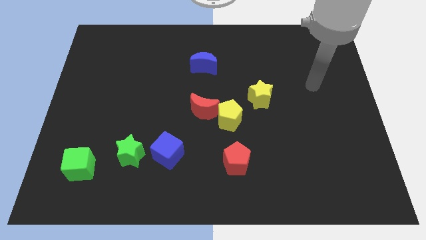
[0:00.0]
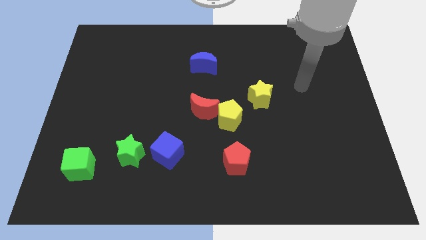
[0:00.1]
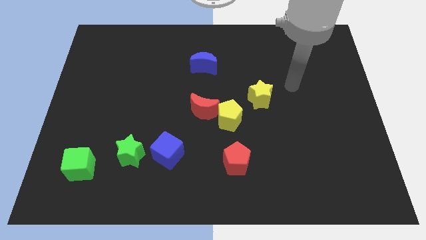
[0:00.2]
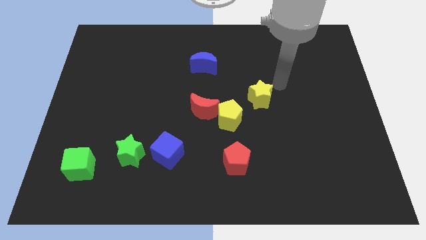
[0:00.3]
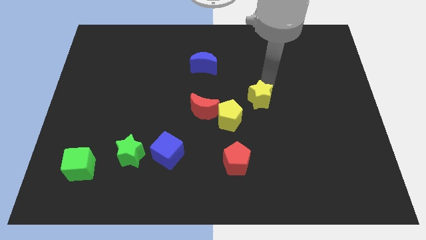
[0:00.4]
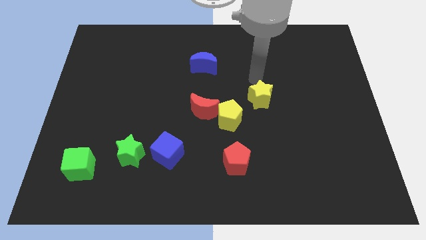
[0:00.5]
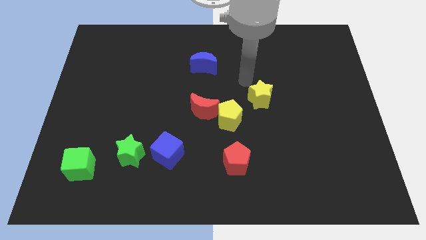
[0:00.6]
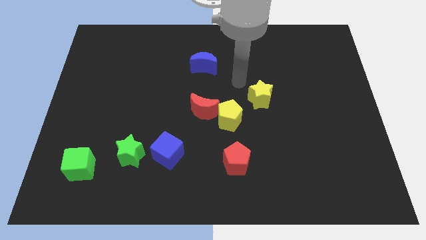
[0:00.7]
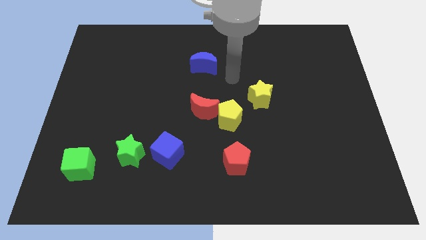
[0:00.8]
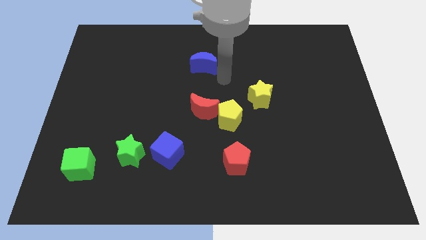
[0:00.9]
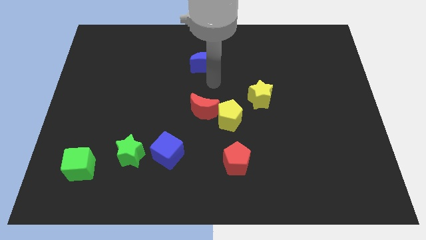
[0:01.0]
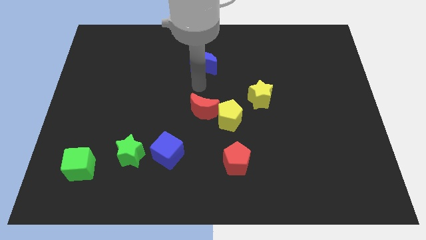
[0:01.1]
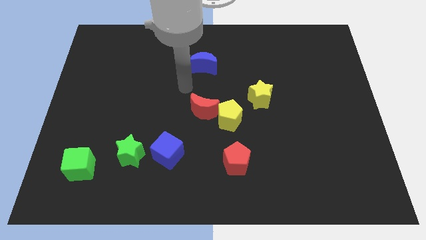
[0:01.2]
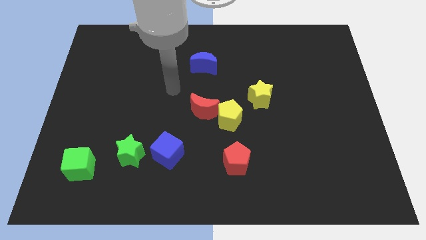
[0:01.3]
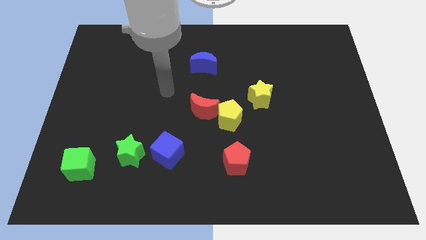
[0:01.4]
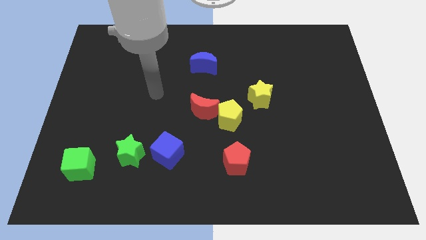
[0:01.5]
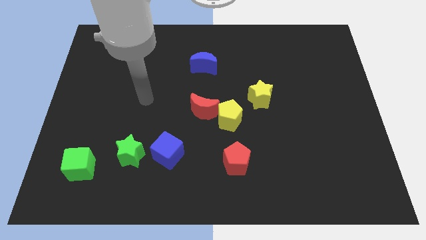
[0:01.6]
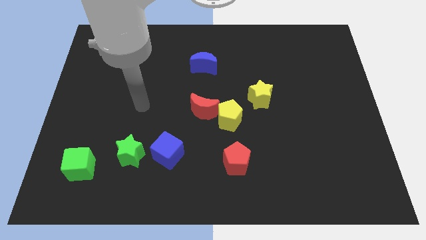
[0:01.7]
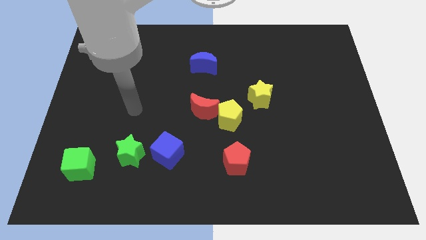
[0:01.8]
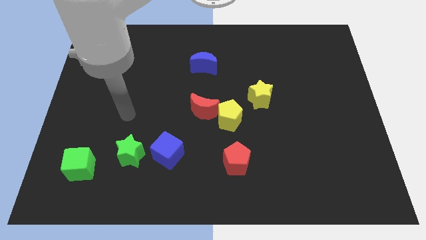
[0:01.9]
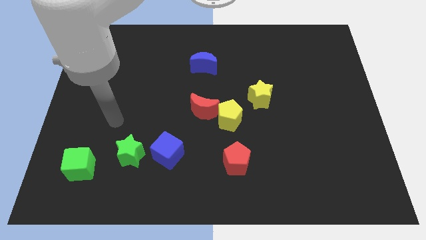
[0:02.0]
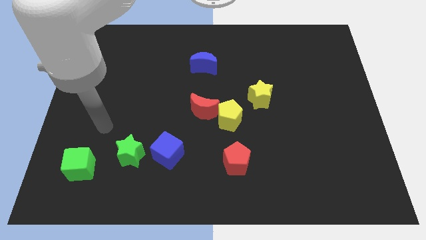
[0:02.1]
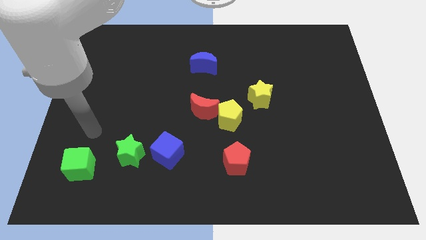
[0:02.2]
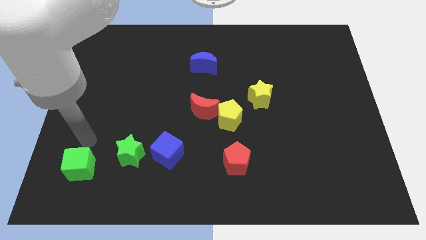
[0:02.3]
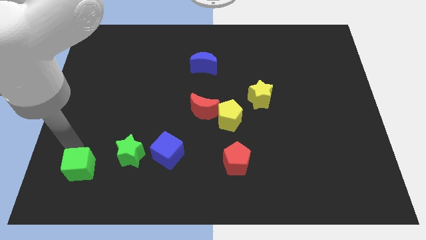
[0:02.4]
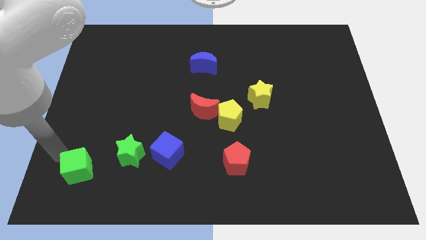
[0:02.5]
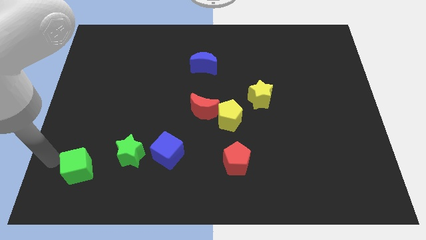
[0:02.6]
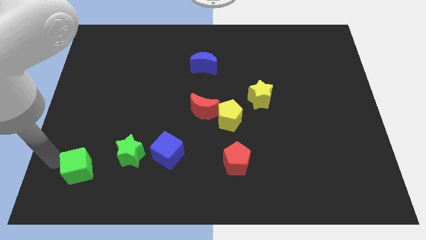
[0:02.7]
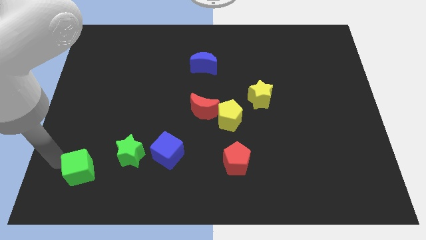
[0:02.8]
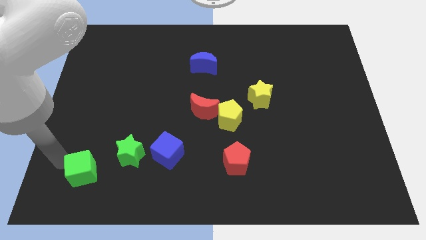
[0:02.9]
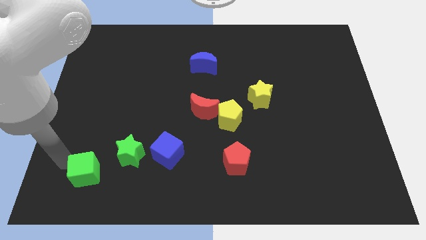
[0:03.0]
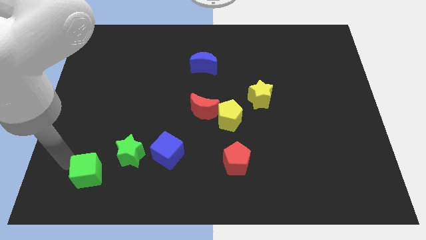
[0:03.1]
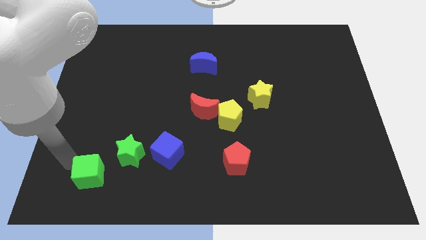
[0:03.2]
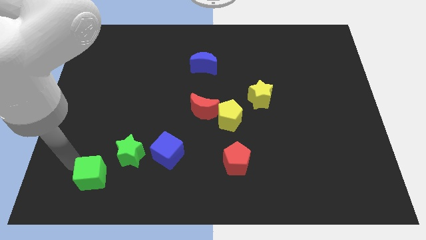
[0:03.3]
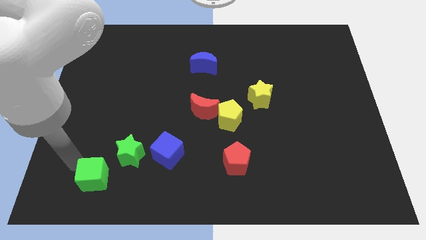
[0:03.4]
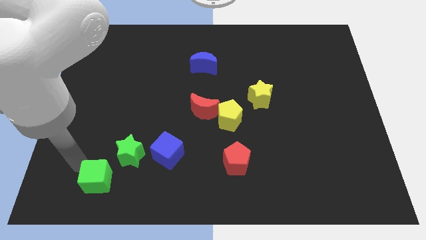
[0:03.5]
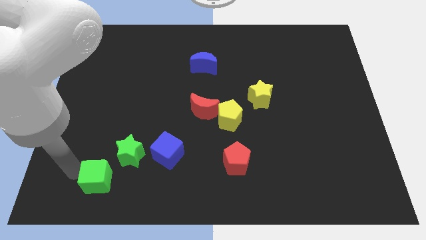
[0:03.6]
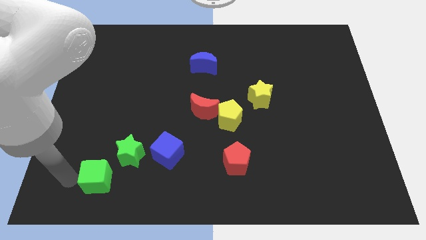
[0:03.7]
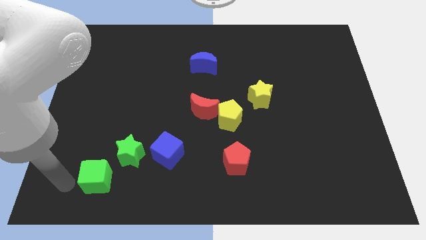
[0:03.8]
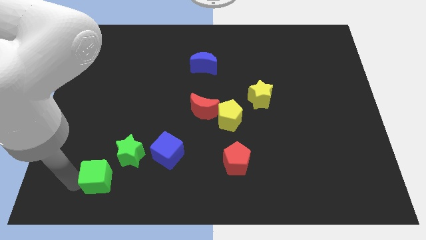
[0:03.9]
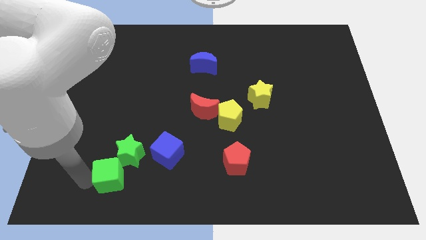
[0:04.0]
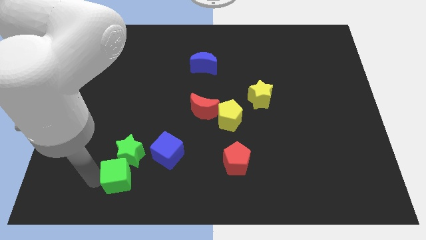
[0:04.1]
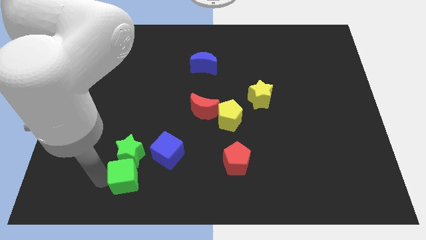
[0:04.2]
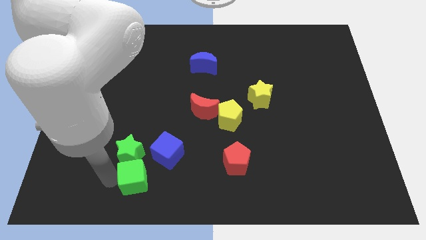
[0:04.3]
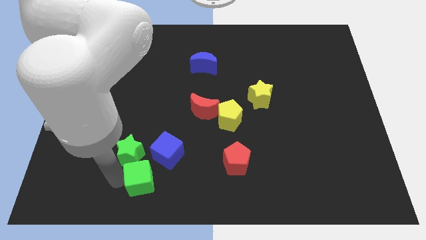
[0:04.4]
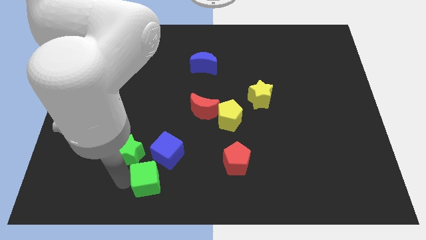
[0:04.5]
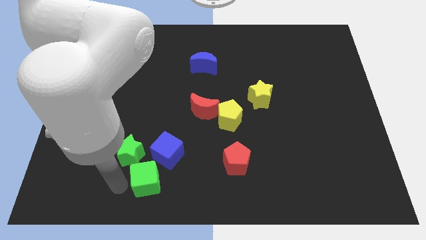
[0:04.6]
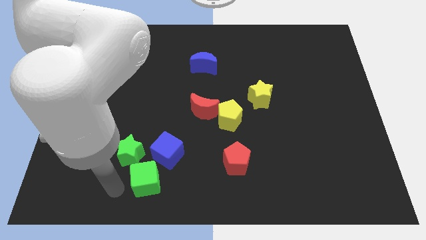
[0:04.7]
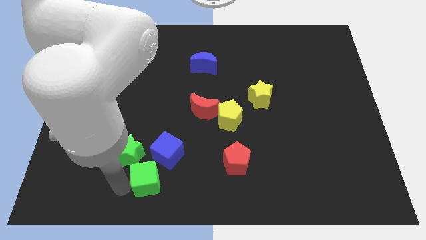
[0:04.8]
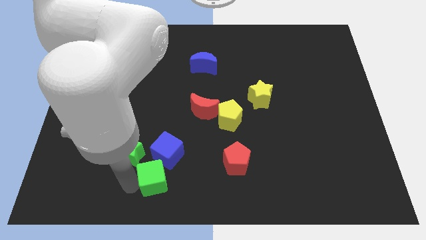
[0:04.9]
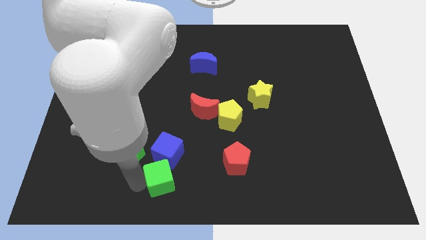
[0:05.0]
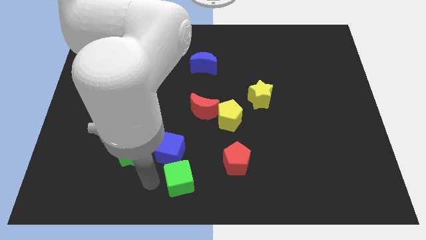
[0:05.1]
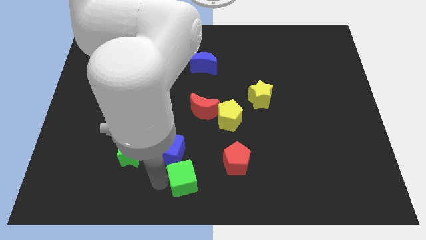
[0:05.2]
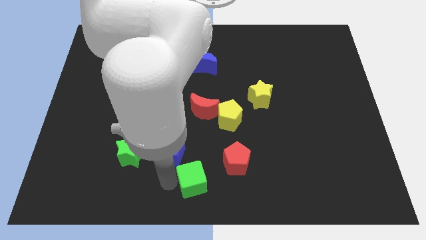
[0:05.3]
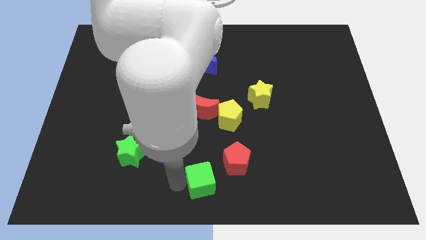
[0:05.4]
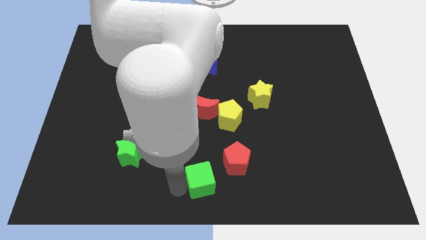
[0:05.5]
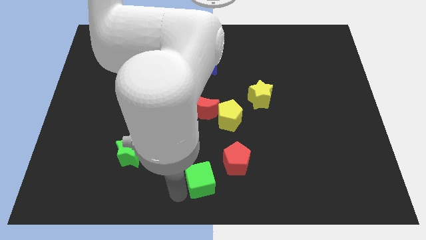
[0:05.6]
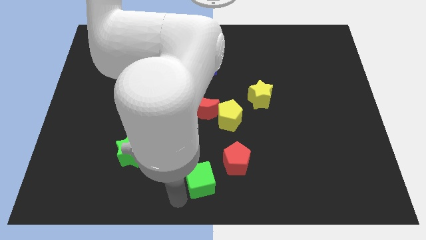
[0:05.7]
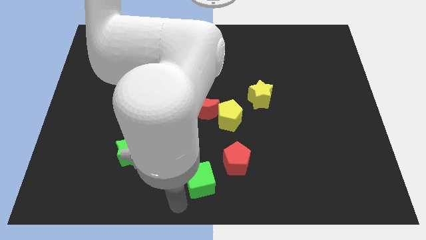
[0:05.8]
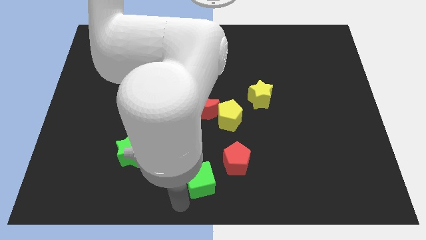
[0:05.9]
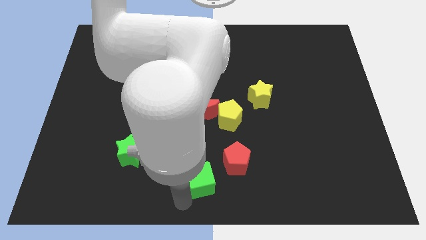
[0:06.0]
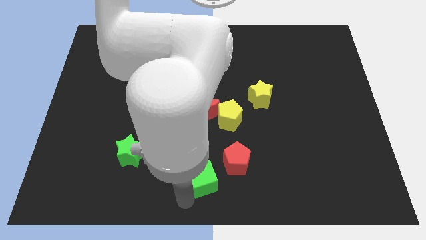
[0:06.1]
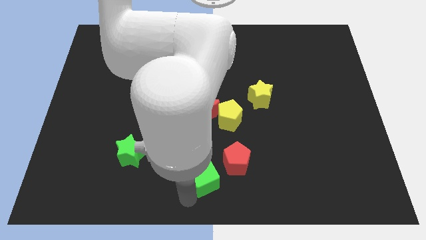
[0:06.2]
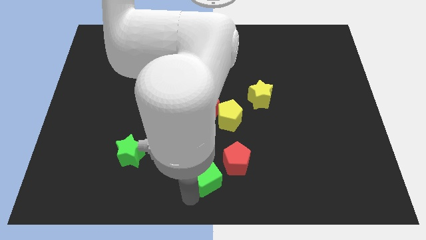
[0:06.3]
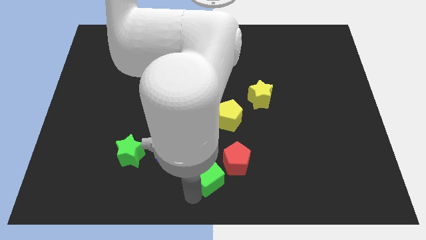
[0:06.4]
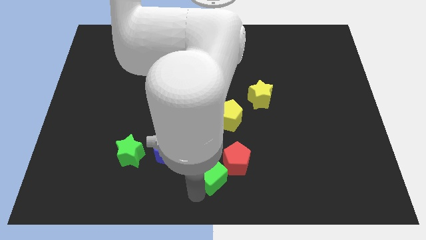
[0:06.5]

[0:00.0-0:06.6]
slide the green cube close to the red pentagon
